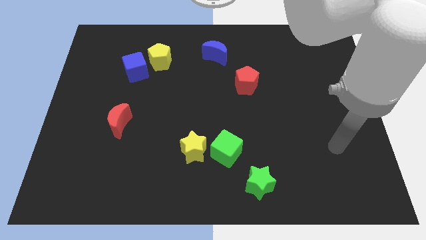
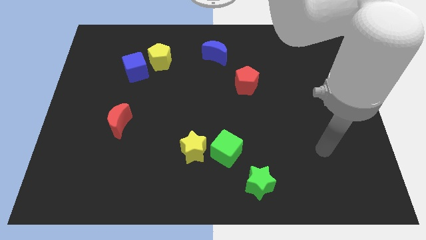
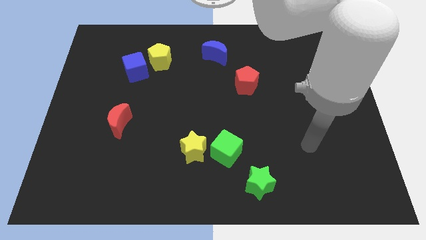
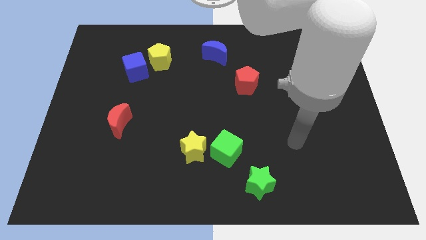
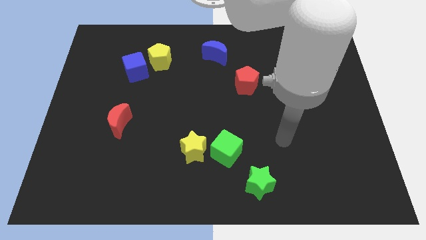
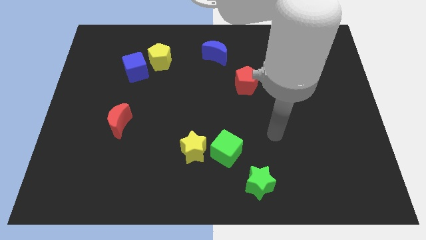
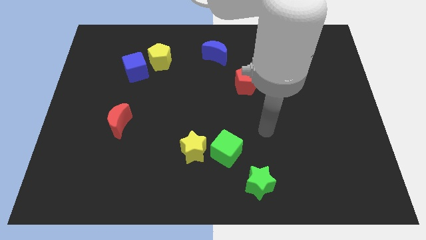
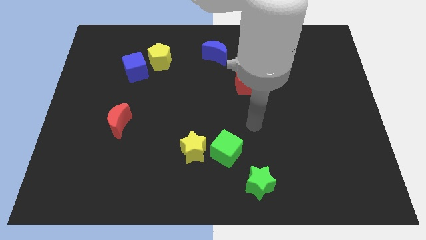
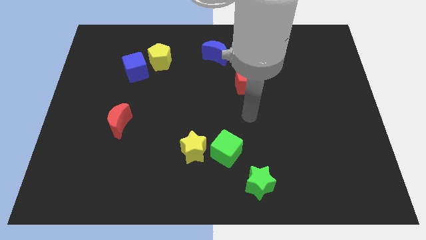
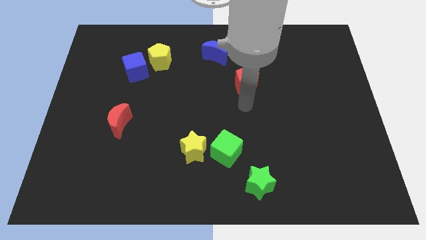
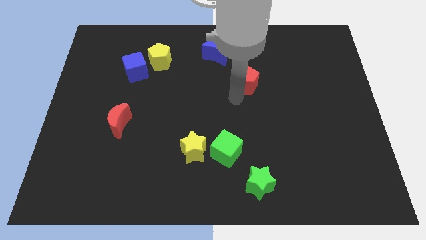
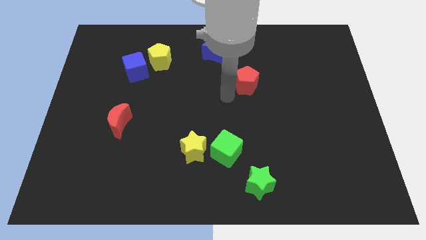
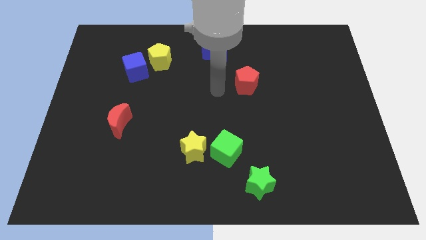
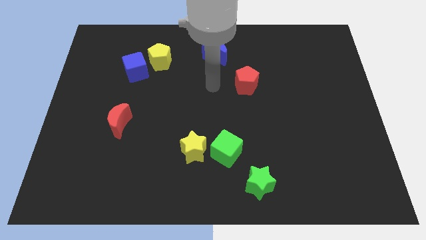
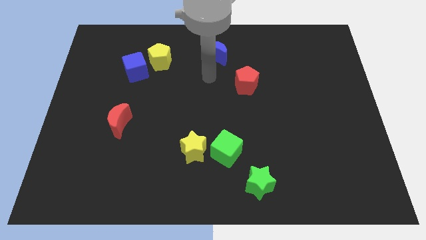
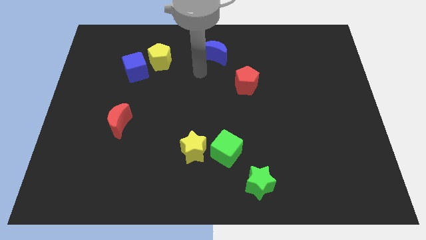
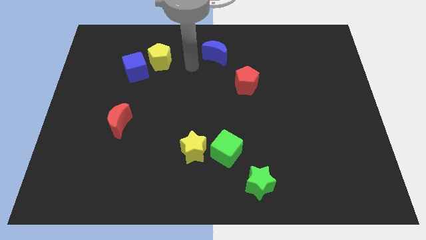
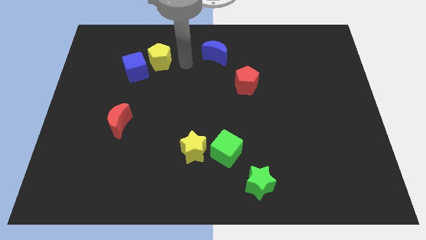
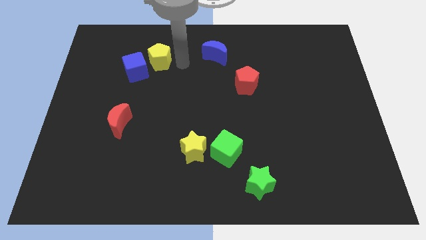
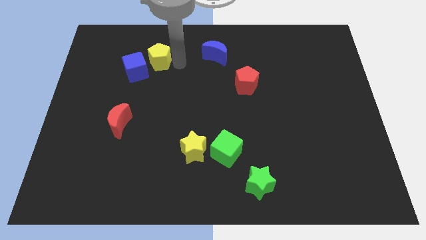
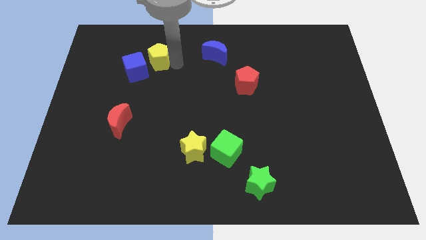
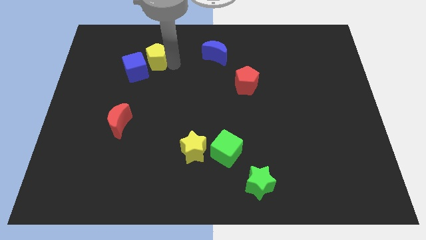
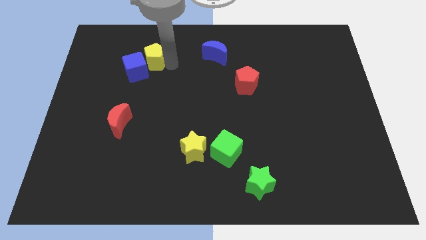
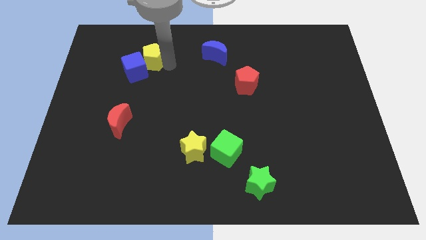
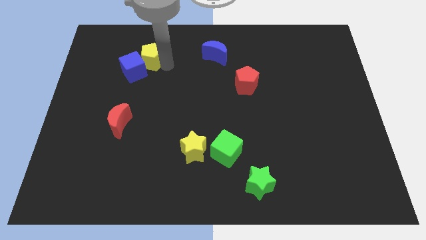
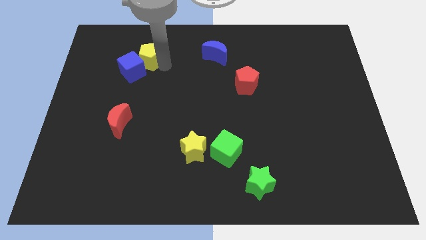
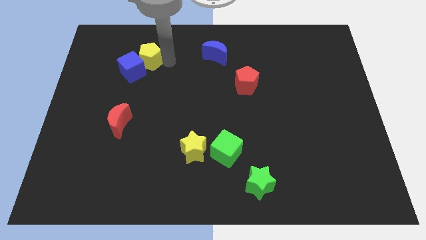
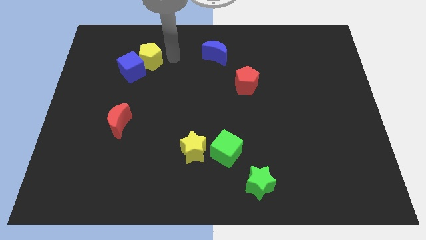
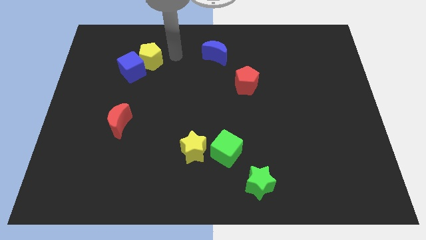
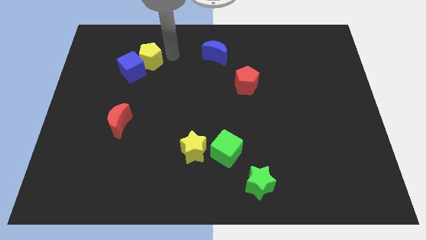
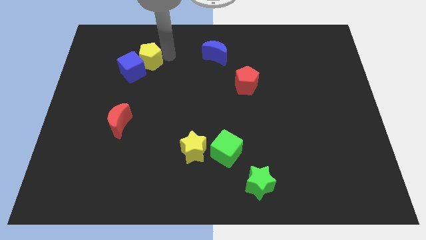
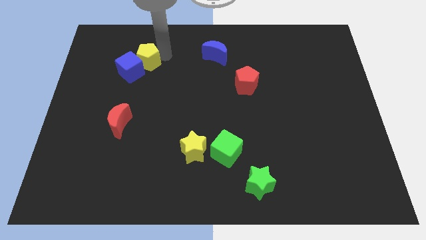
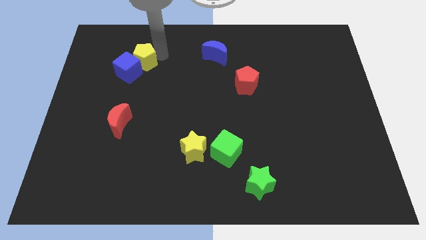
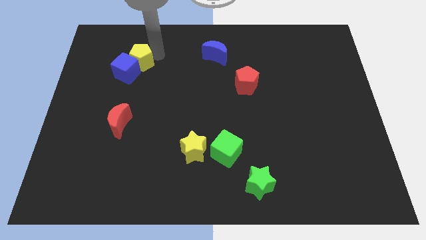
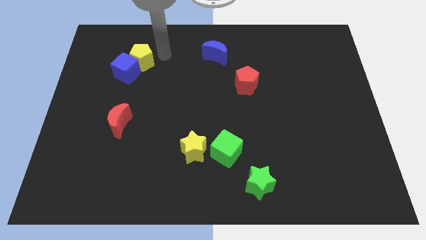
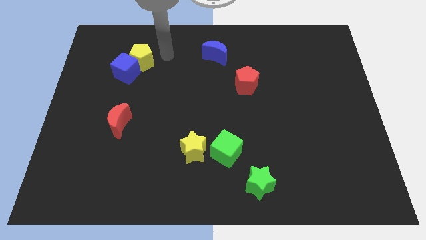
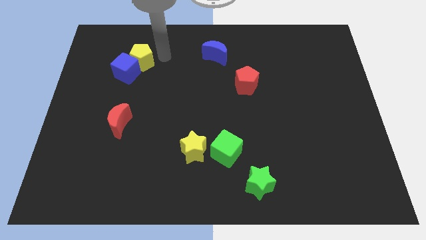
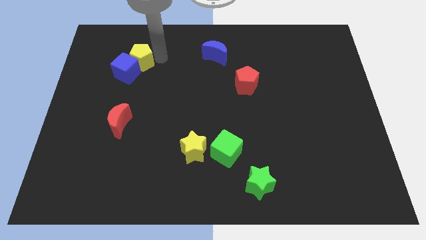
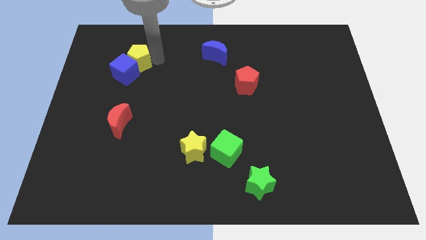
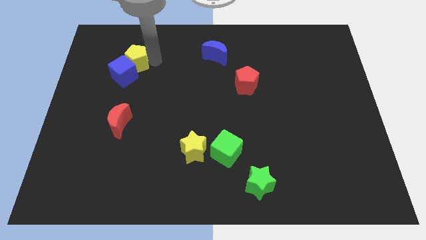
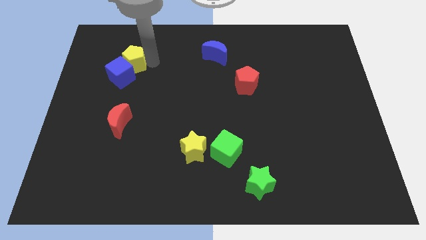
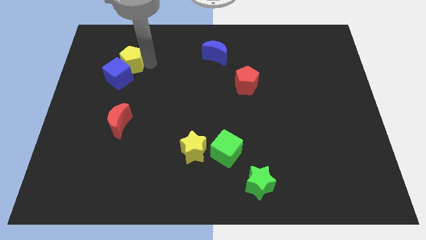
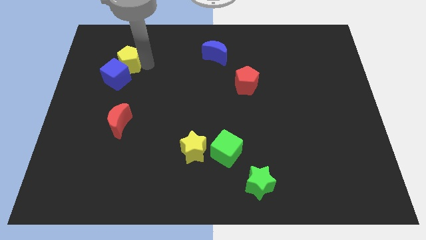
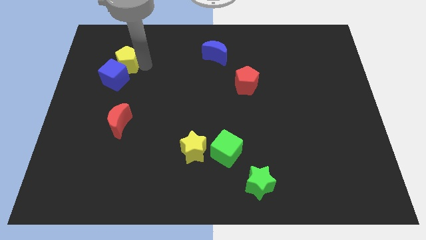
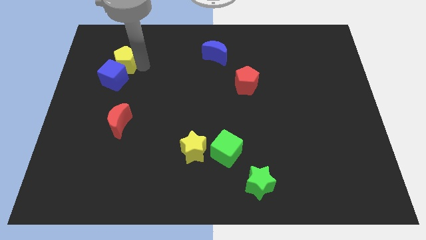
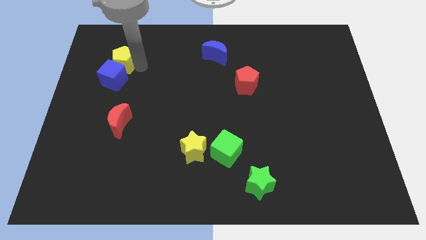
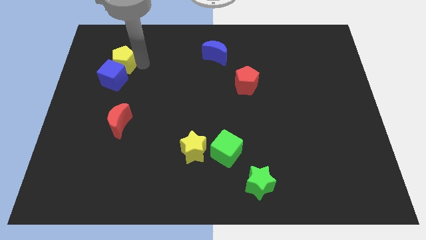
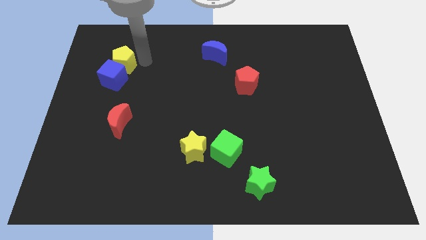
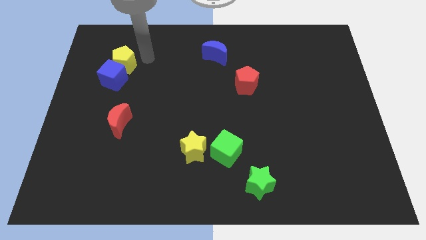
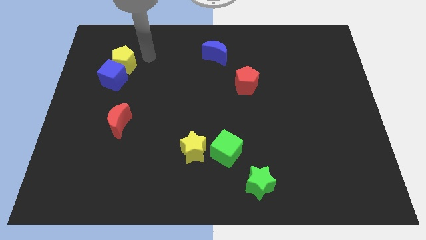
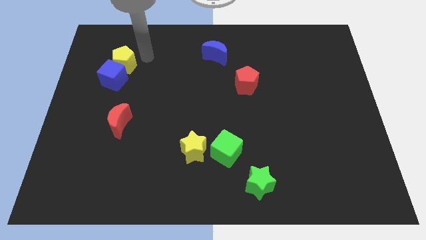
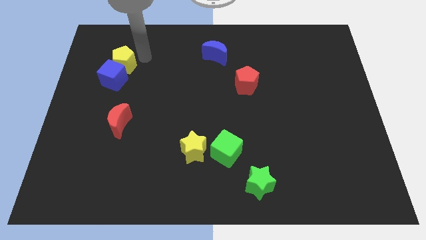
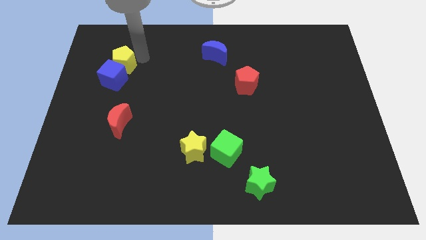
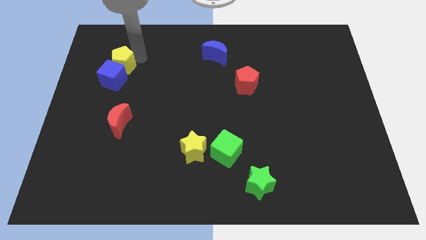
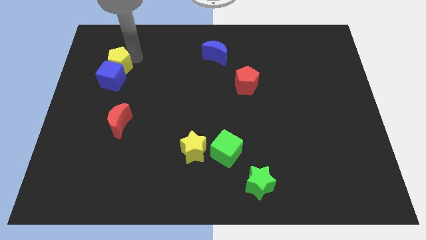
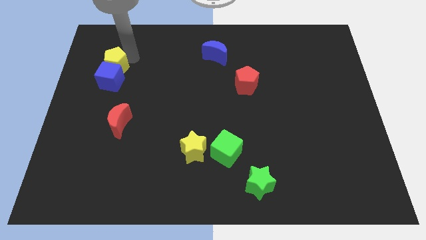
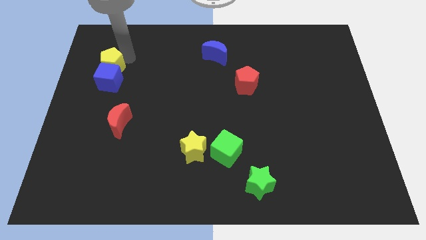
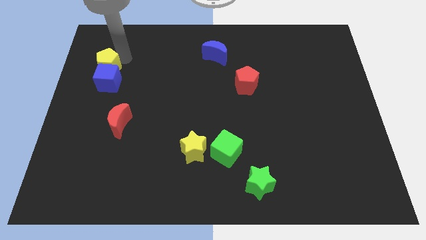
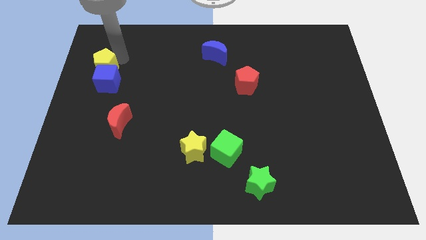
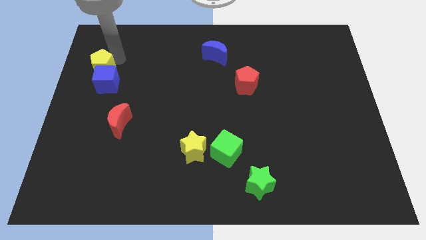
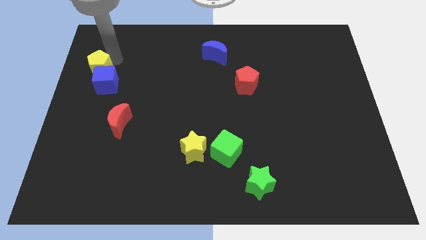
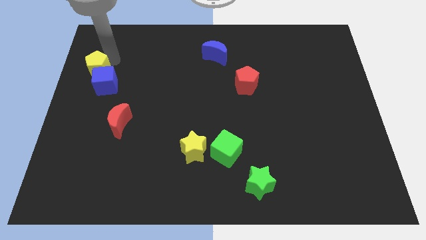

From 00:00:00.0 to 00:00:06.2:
put the yellow pentagon to the left side of the board
